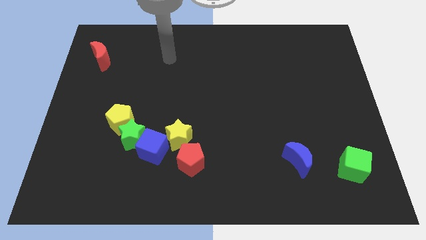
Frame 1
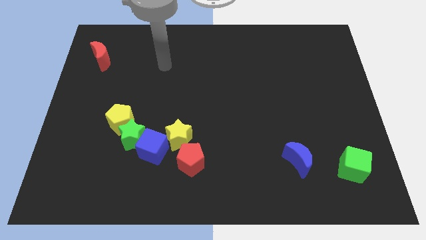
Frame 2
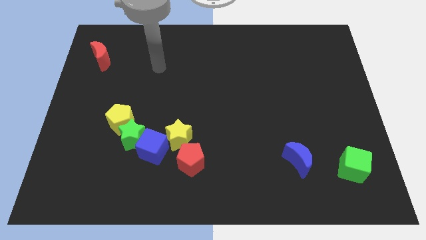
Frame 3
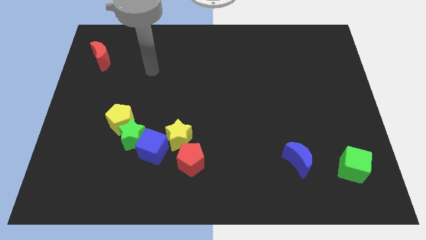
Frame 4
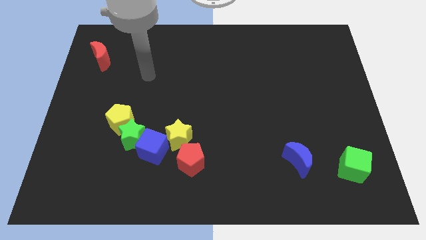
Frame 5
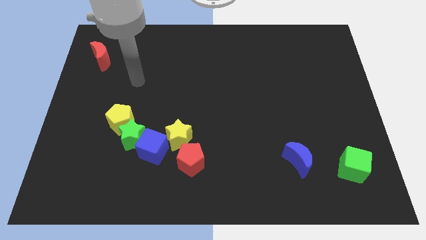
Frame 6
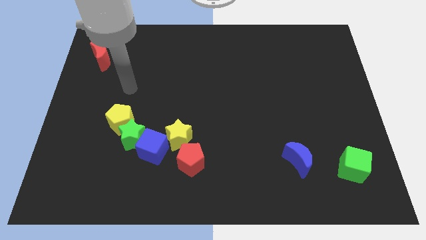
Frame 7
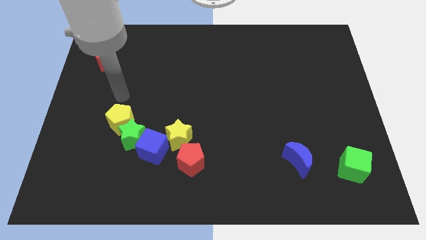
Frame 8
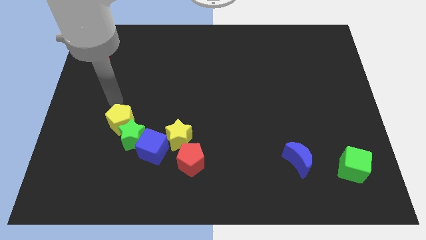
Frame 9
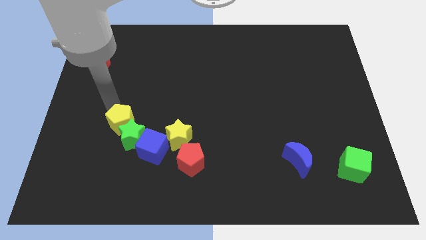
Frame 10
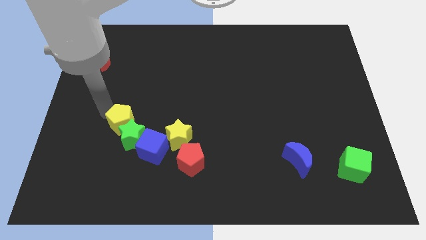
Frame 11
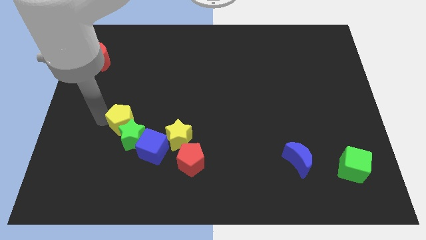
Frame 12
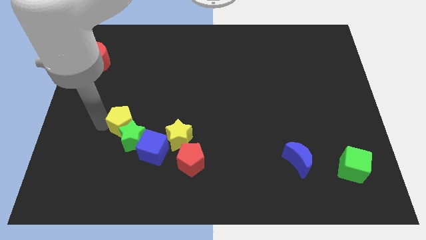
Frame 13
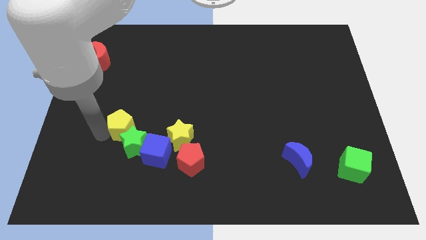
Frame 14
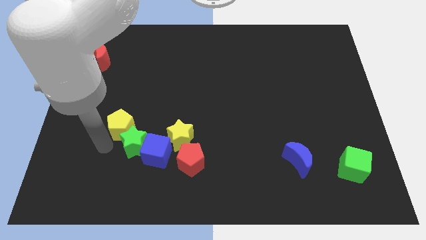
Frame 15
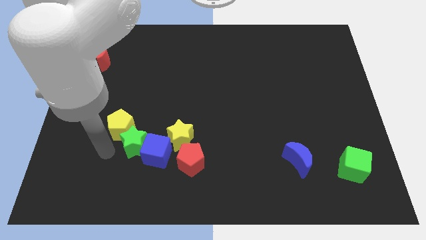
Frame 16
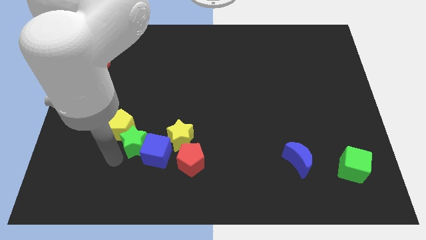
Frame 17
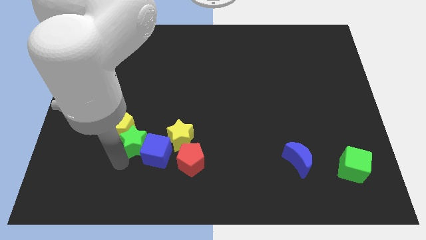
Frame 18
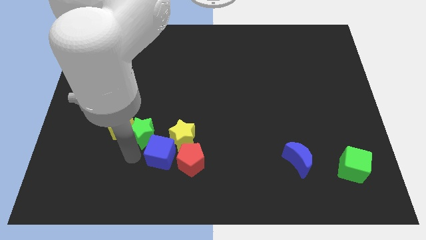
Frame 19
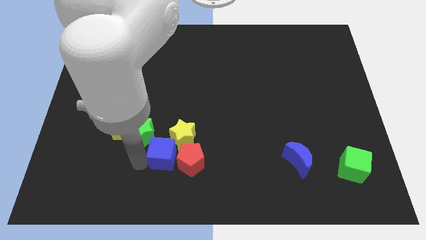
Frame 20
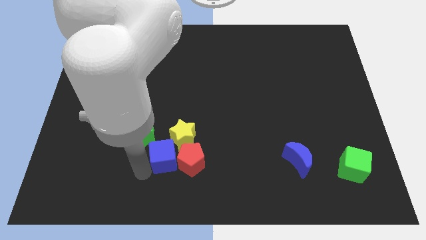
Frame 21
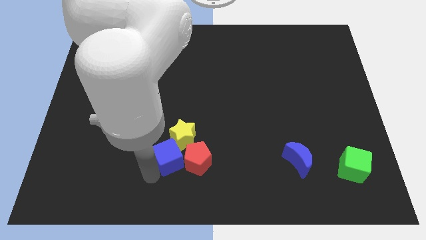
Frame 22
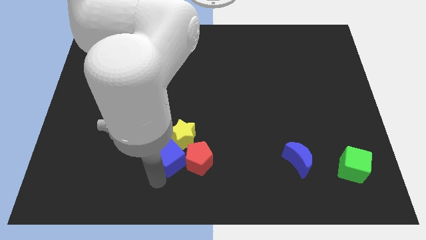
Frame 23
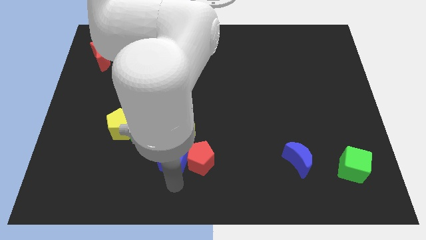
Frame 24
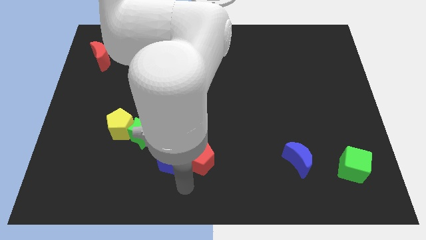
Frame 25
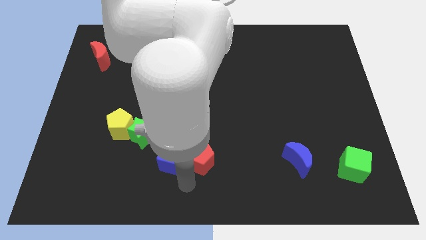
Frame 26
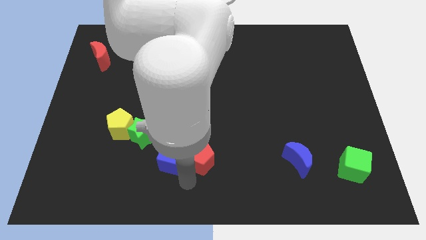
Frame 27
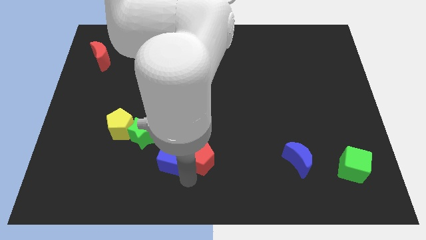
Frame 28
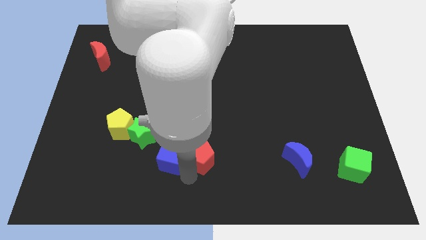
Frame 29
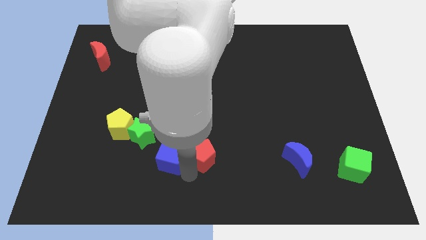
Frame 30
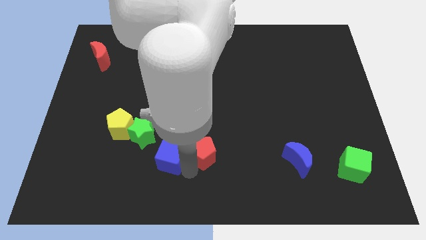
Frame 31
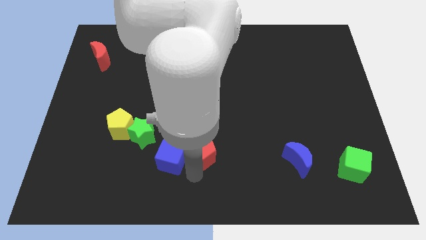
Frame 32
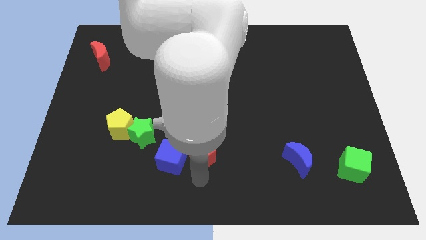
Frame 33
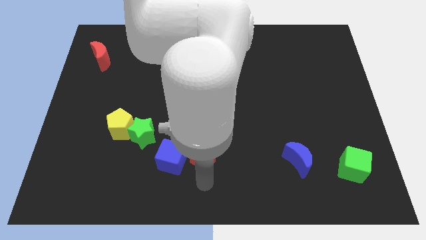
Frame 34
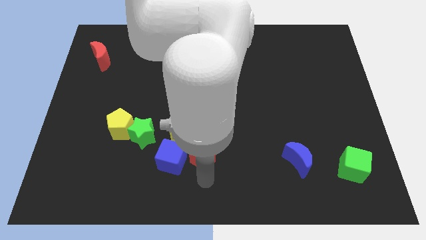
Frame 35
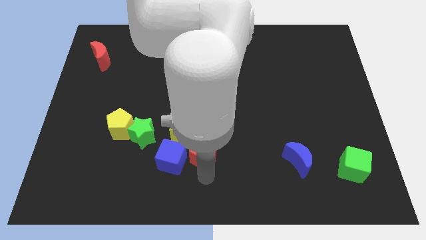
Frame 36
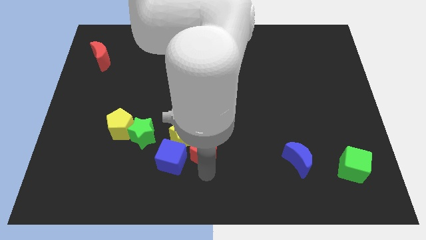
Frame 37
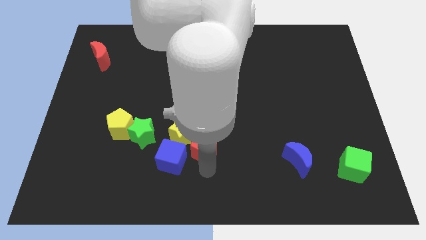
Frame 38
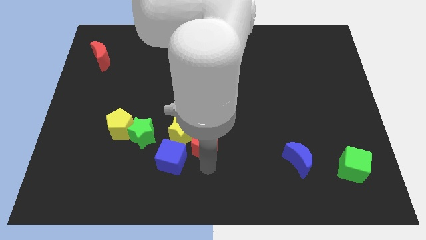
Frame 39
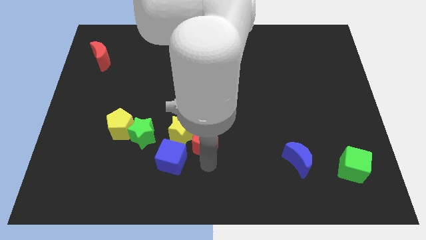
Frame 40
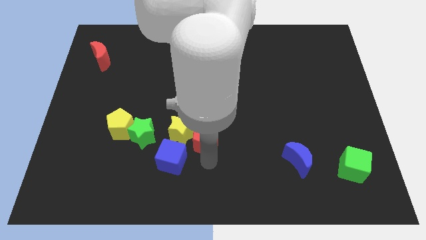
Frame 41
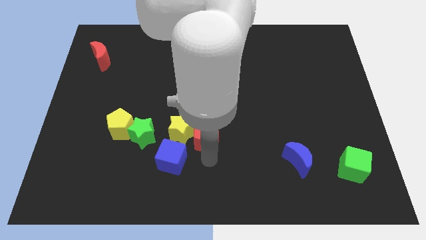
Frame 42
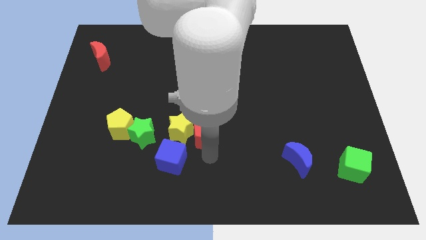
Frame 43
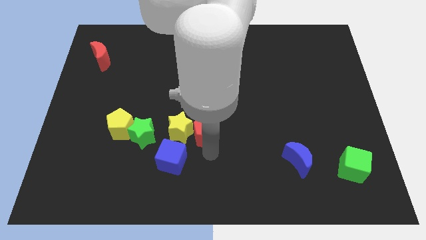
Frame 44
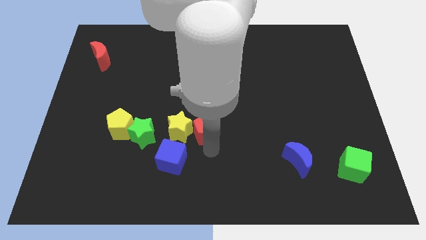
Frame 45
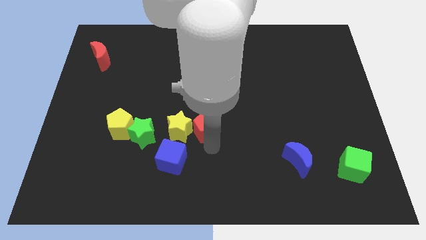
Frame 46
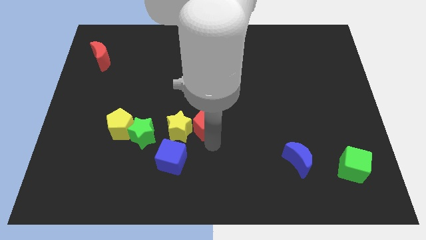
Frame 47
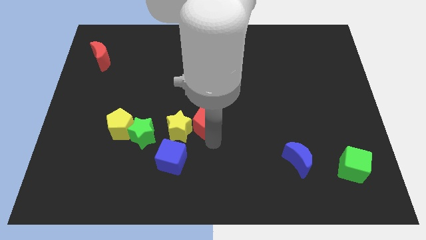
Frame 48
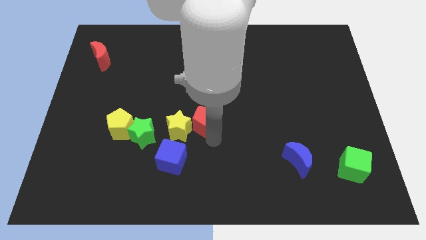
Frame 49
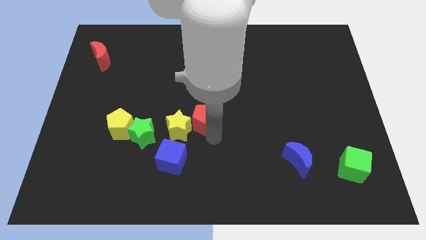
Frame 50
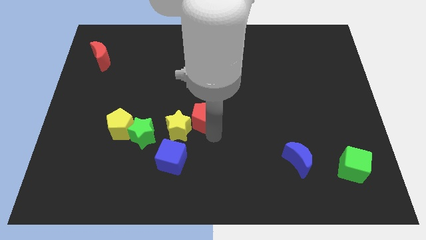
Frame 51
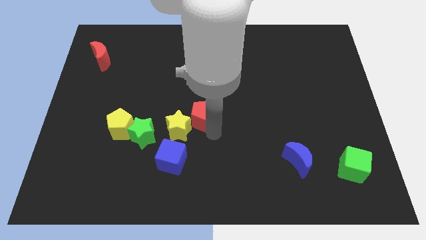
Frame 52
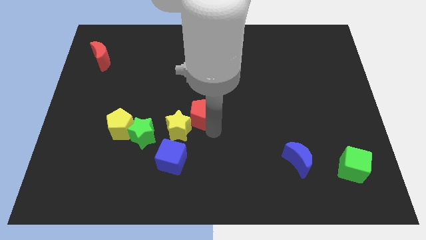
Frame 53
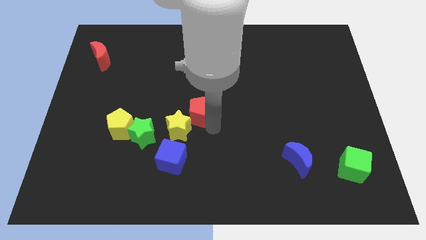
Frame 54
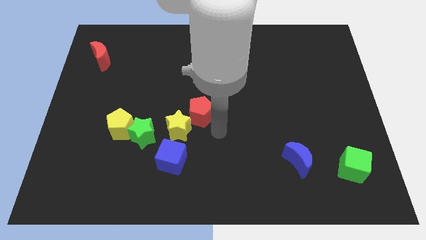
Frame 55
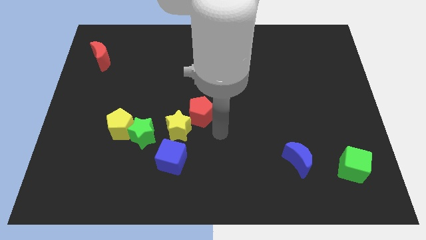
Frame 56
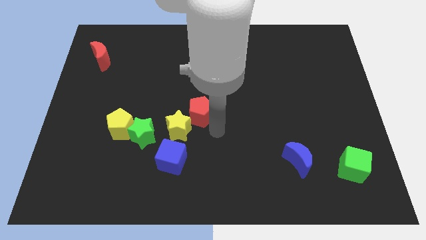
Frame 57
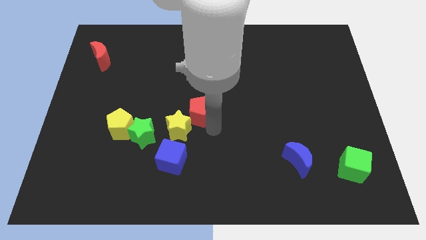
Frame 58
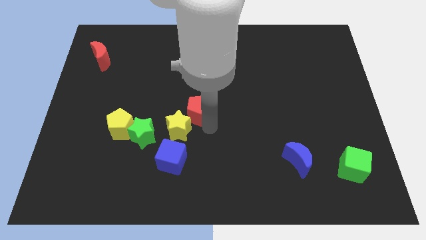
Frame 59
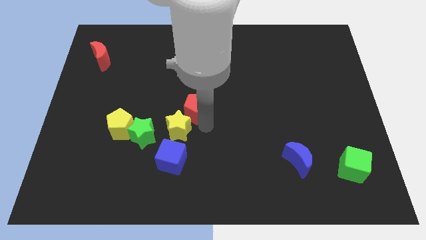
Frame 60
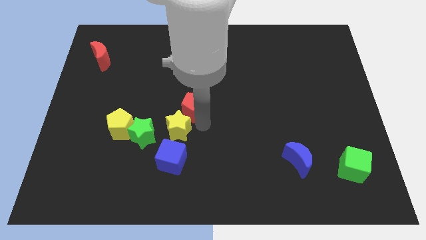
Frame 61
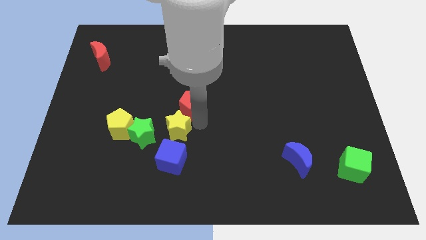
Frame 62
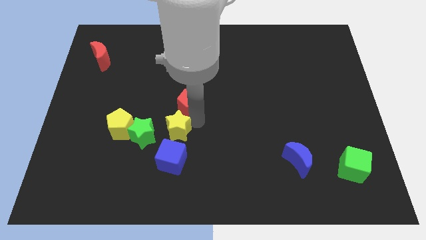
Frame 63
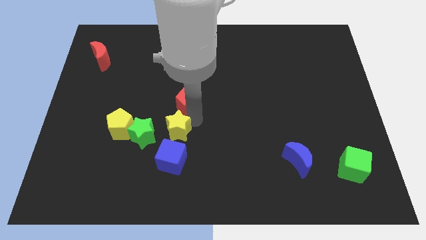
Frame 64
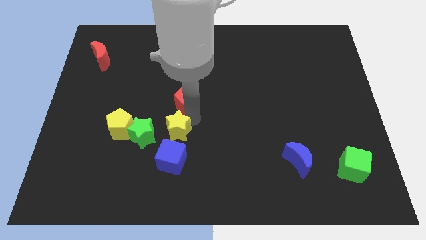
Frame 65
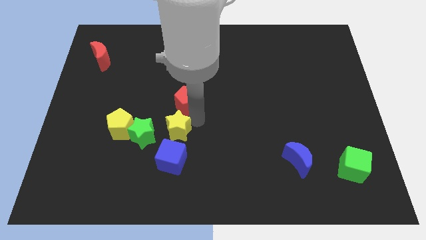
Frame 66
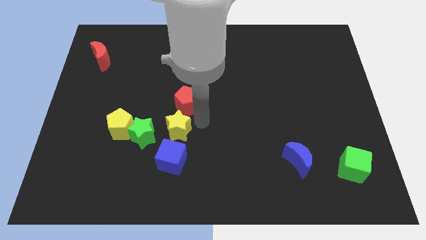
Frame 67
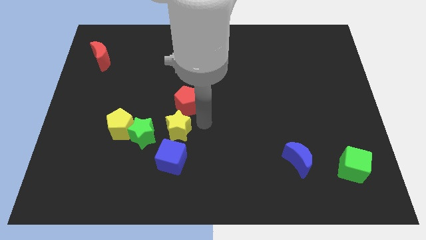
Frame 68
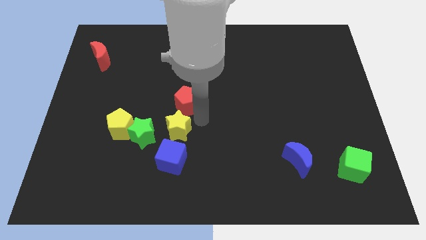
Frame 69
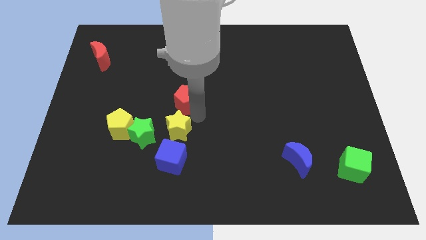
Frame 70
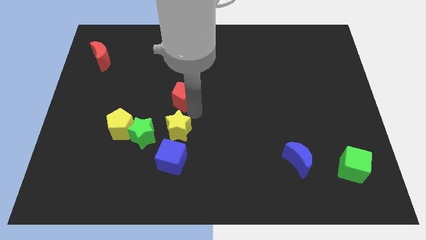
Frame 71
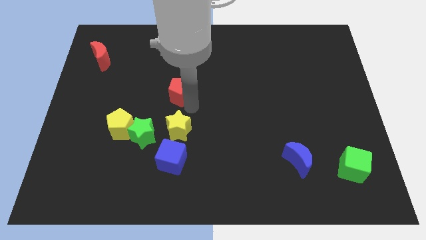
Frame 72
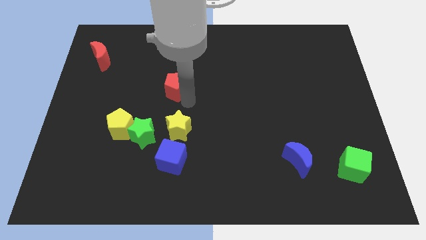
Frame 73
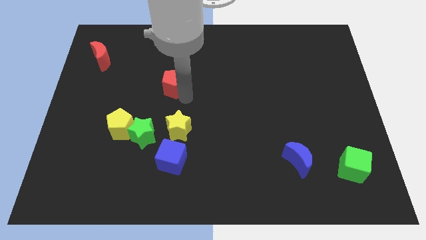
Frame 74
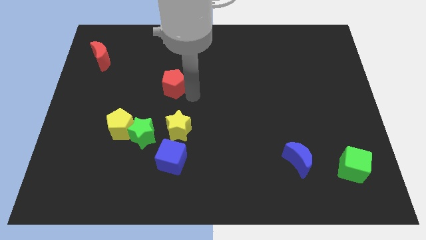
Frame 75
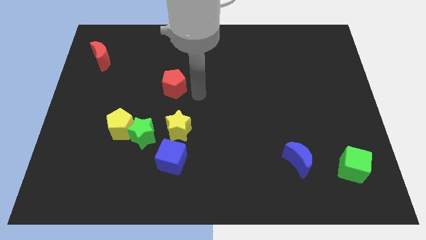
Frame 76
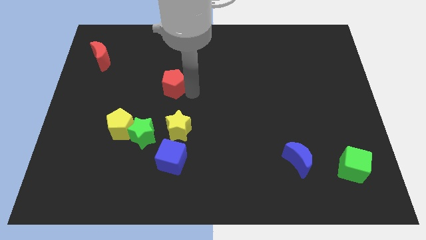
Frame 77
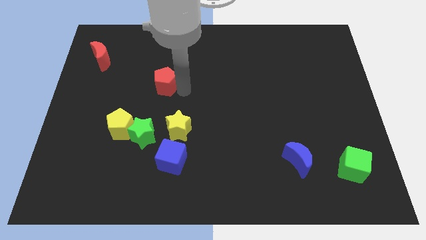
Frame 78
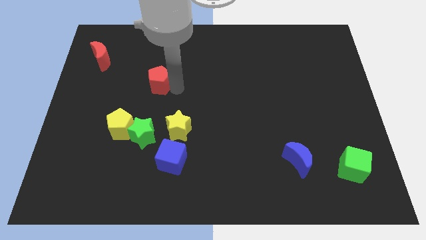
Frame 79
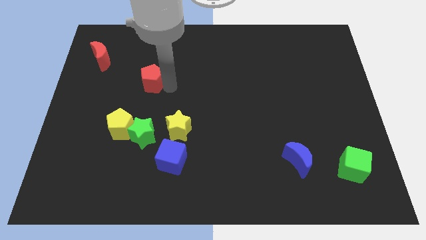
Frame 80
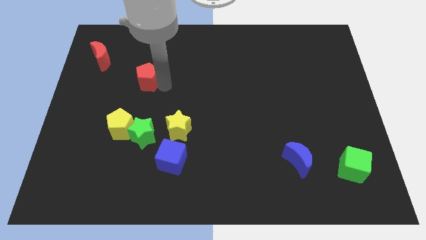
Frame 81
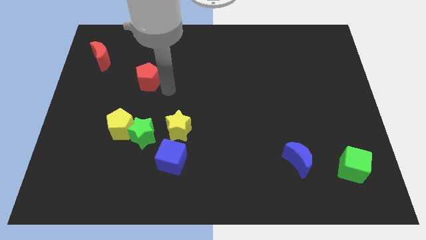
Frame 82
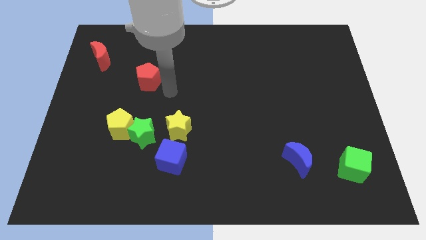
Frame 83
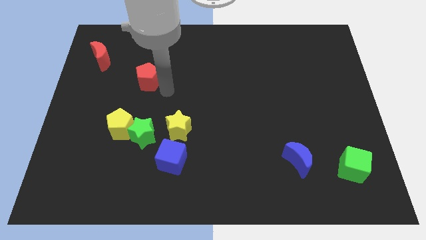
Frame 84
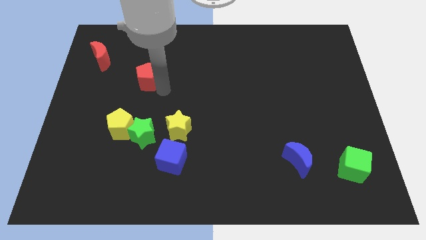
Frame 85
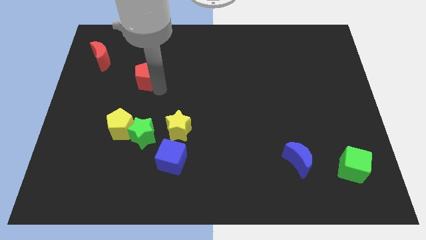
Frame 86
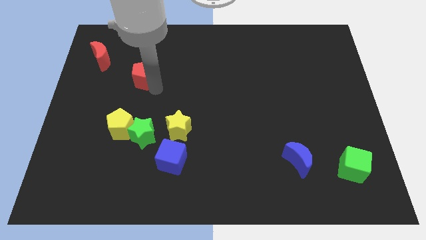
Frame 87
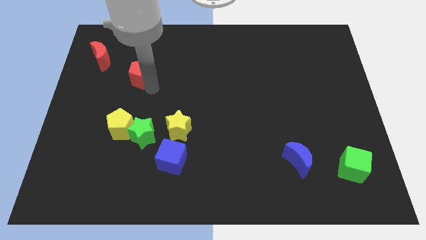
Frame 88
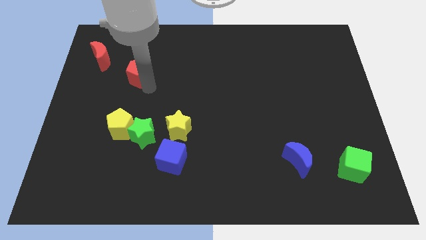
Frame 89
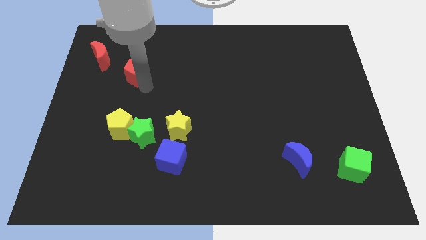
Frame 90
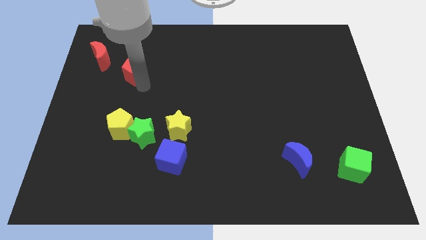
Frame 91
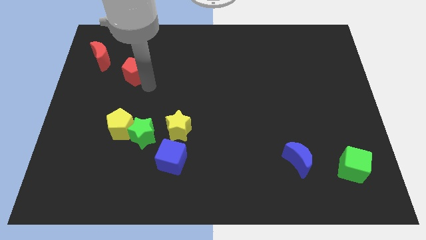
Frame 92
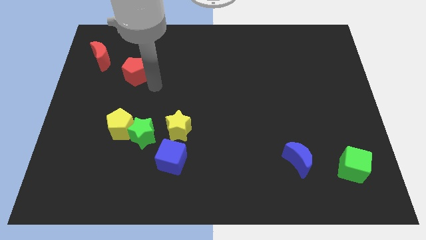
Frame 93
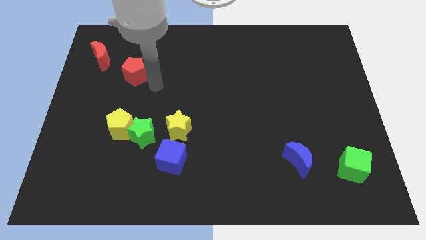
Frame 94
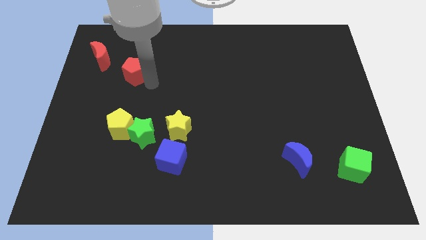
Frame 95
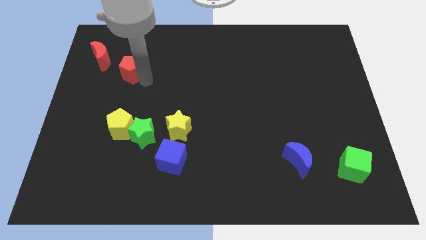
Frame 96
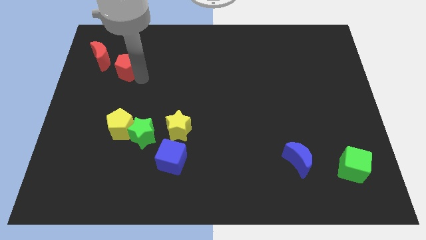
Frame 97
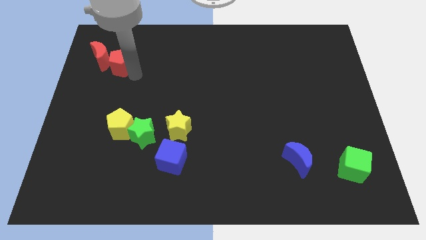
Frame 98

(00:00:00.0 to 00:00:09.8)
push the red pentagon to the red moon
